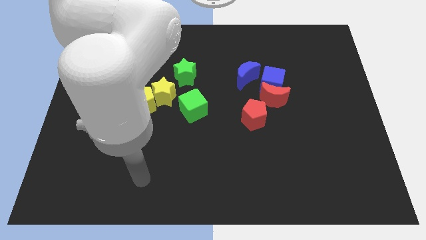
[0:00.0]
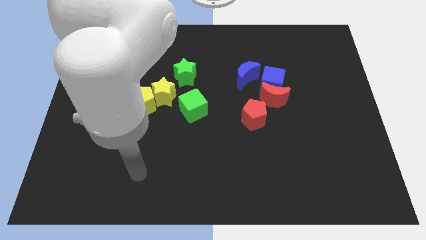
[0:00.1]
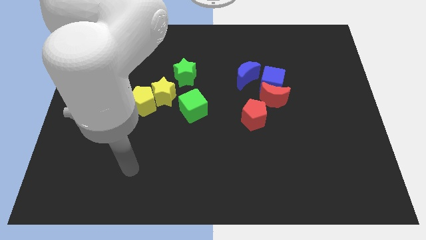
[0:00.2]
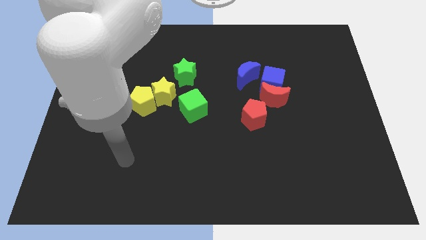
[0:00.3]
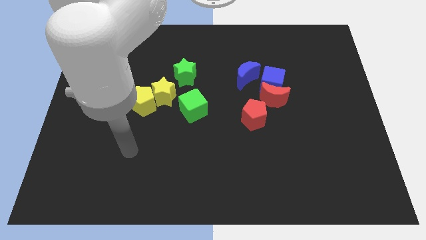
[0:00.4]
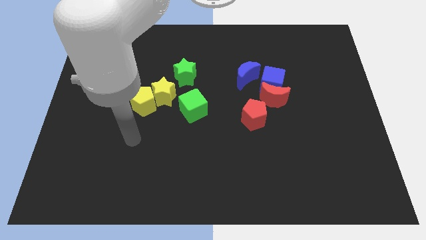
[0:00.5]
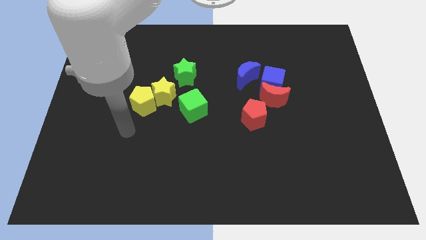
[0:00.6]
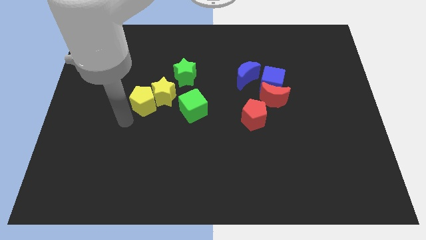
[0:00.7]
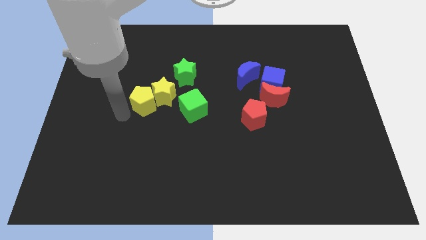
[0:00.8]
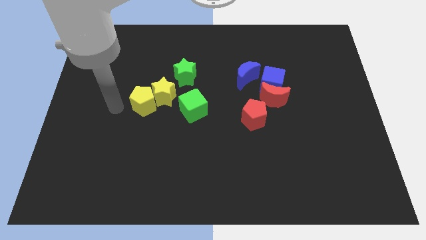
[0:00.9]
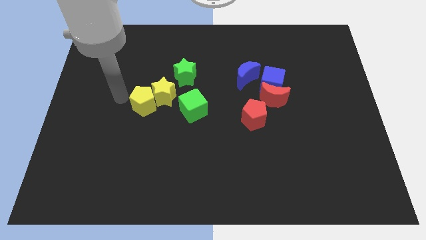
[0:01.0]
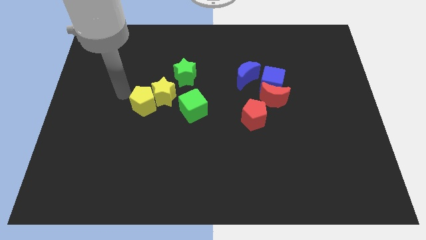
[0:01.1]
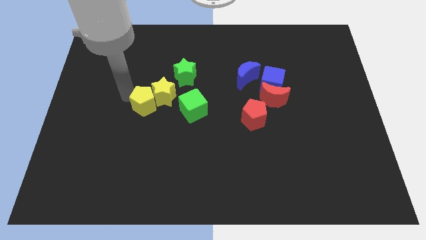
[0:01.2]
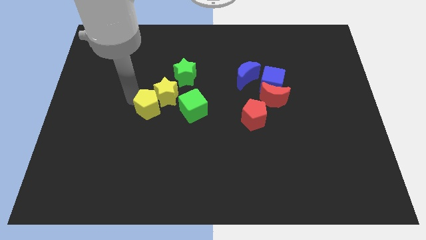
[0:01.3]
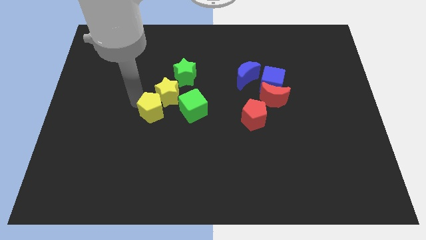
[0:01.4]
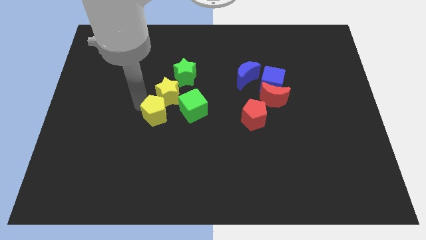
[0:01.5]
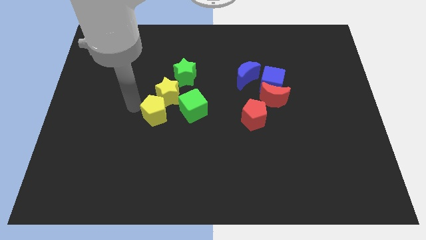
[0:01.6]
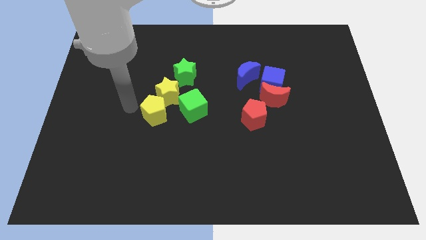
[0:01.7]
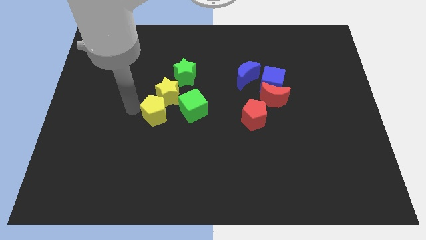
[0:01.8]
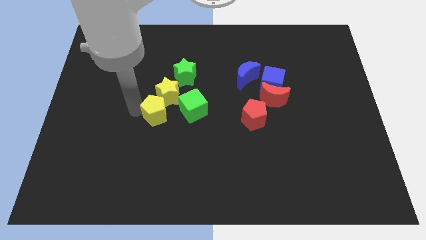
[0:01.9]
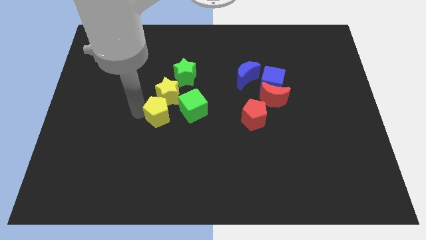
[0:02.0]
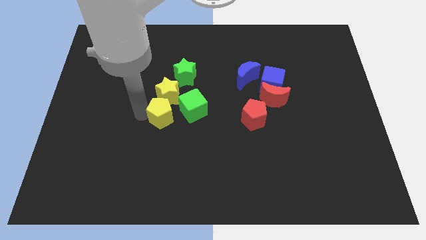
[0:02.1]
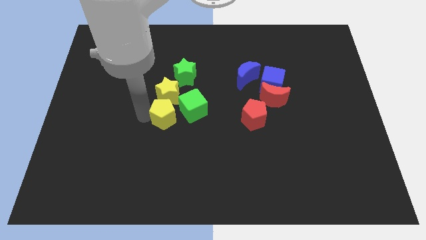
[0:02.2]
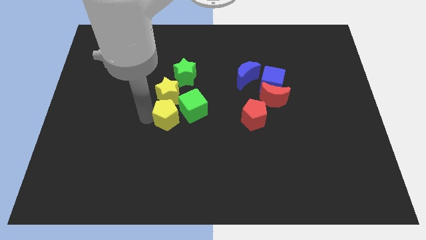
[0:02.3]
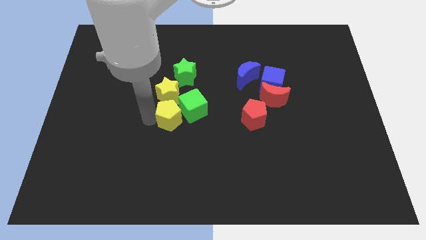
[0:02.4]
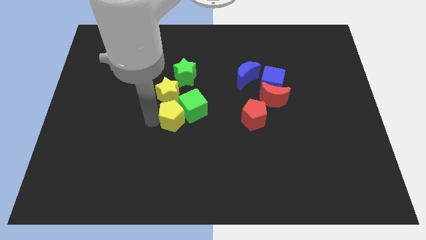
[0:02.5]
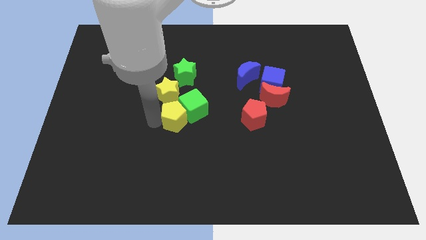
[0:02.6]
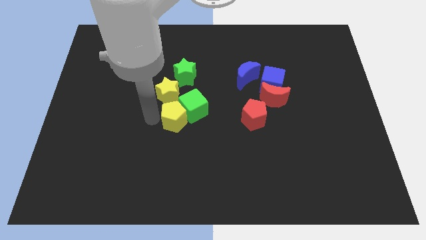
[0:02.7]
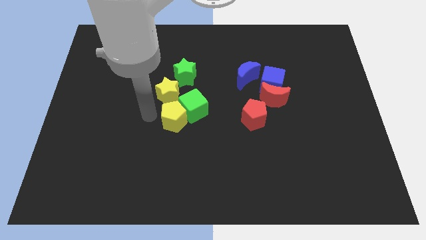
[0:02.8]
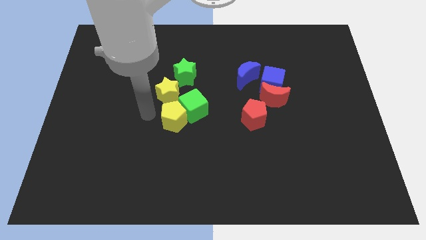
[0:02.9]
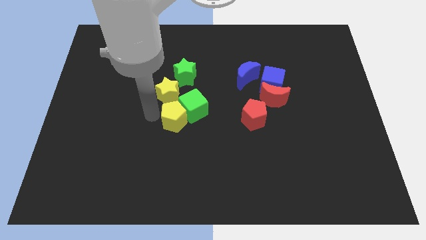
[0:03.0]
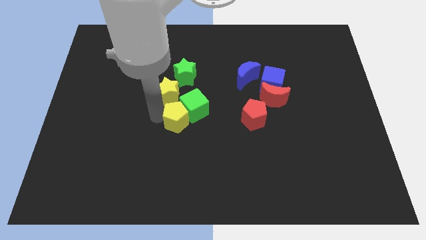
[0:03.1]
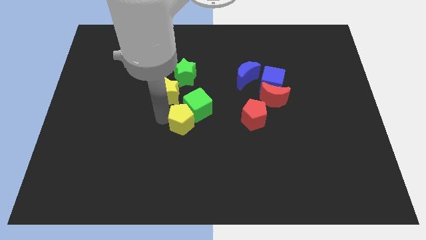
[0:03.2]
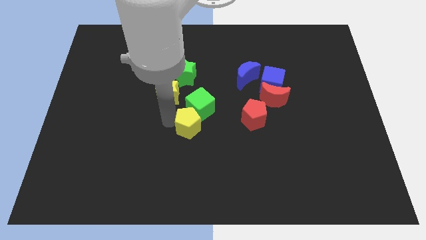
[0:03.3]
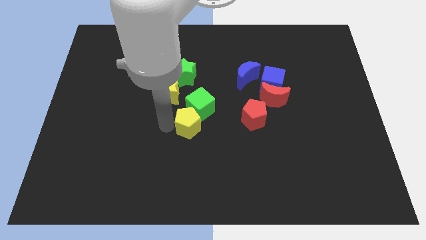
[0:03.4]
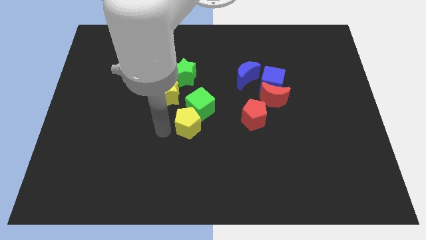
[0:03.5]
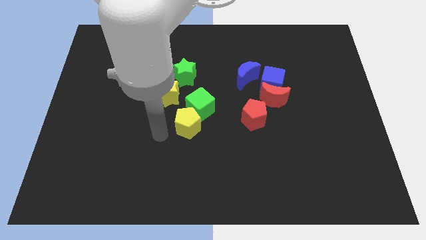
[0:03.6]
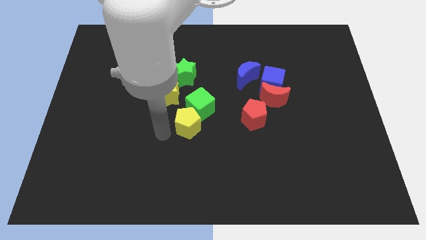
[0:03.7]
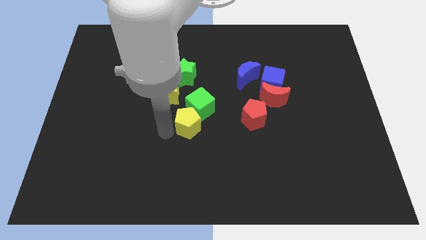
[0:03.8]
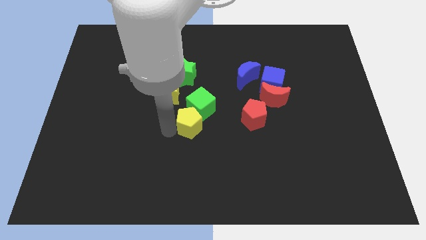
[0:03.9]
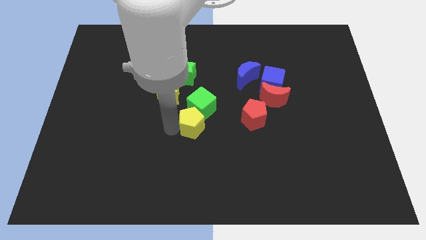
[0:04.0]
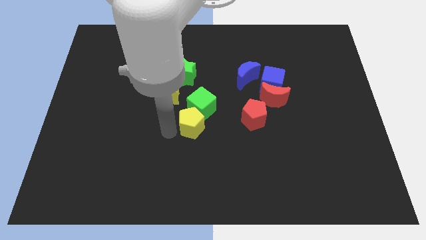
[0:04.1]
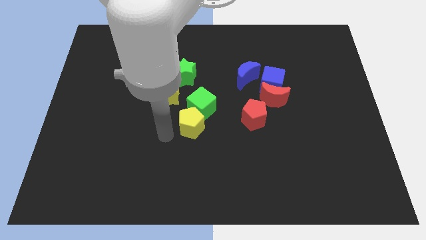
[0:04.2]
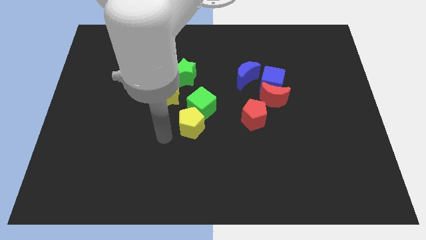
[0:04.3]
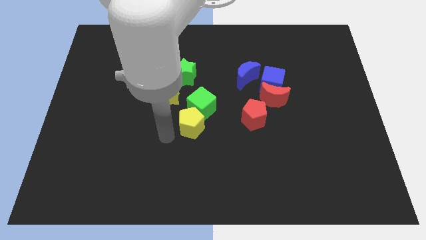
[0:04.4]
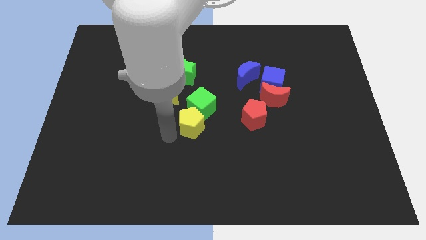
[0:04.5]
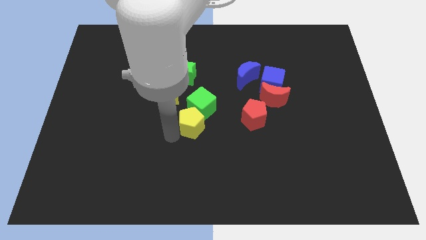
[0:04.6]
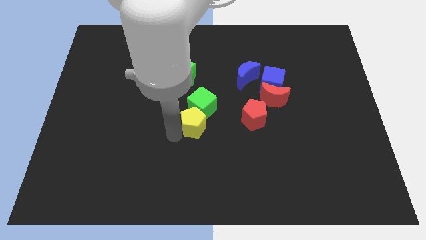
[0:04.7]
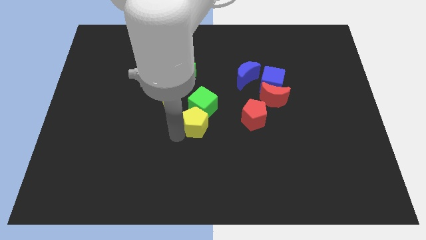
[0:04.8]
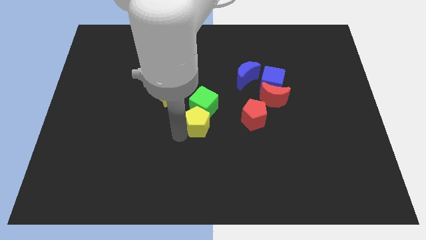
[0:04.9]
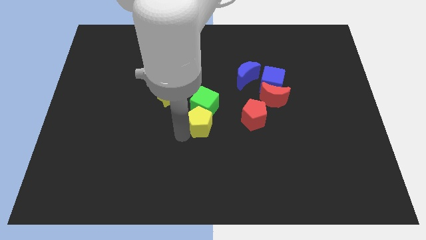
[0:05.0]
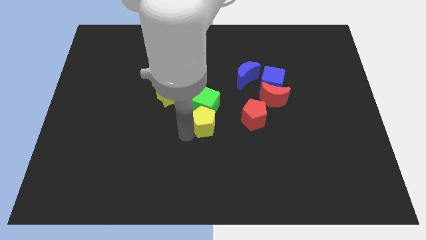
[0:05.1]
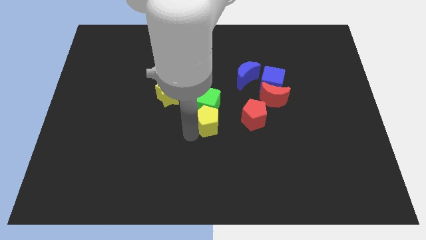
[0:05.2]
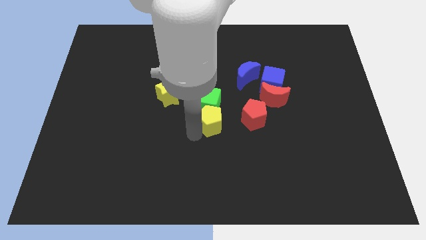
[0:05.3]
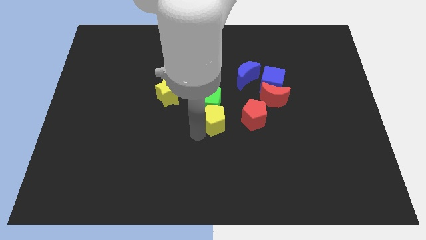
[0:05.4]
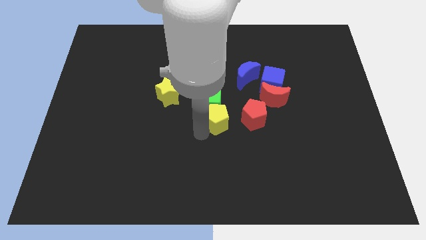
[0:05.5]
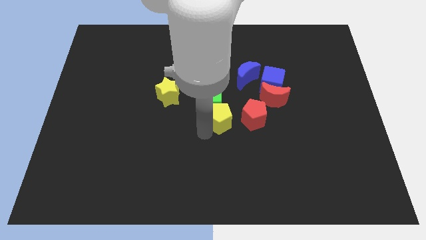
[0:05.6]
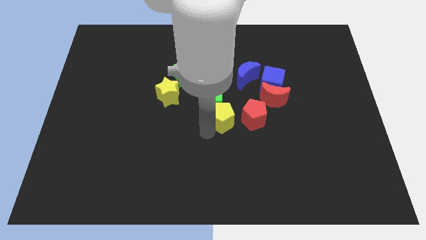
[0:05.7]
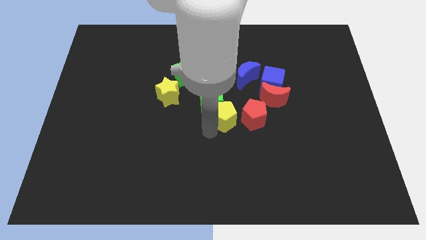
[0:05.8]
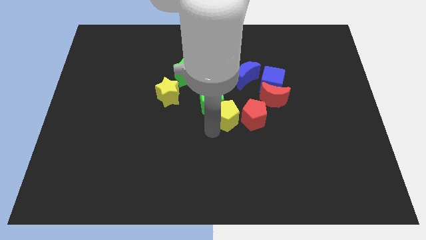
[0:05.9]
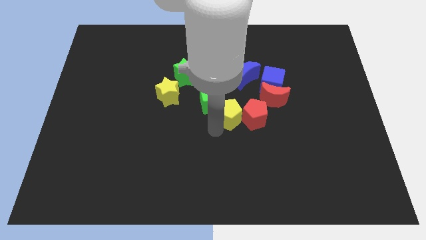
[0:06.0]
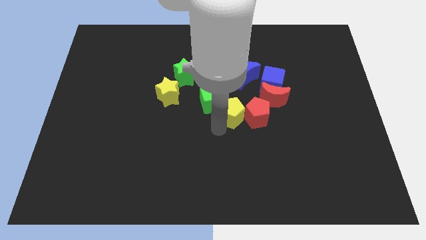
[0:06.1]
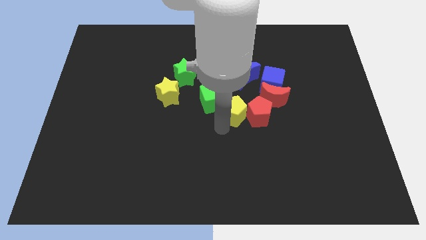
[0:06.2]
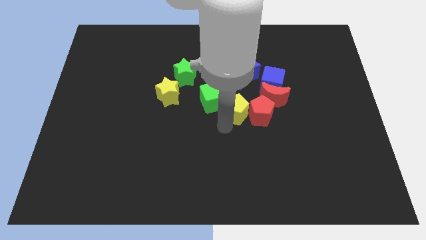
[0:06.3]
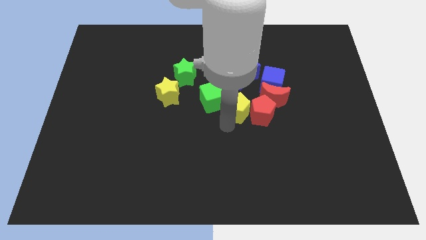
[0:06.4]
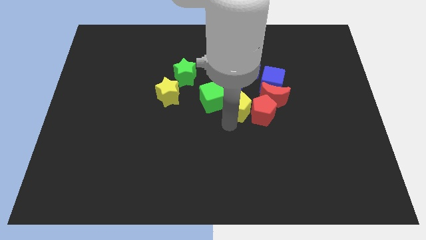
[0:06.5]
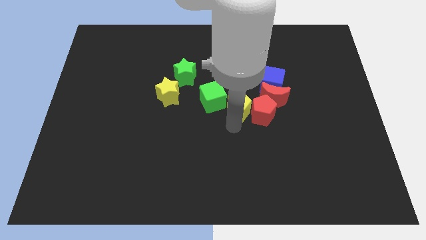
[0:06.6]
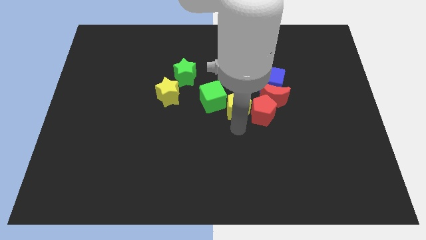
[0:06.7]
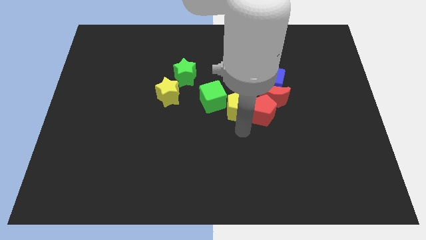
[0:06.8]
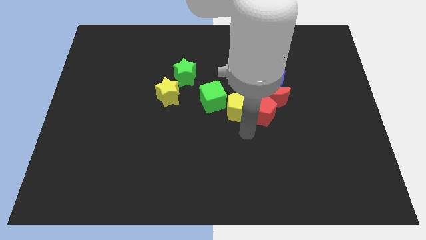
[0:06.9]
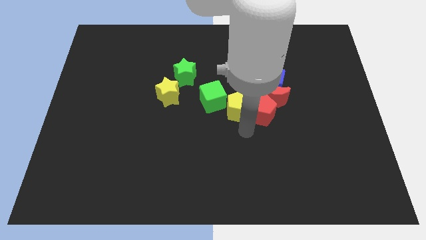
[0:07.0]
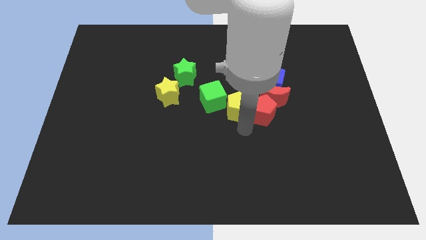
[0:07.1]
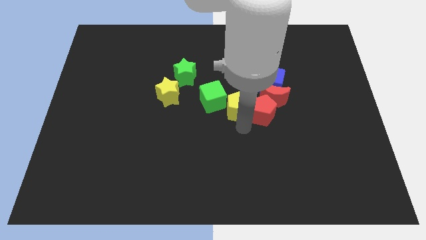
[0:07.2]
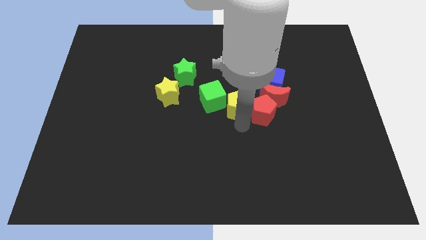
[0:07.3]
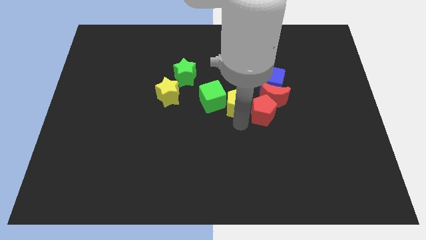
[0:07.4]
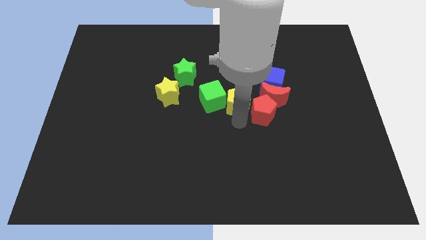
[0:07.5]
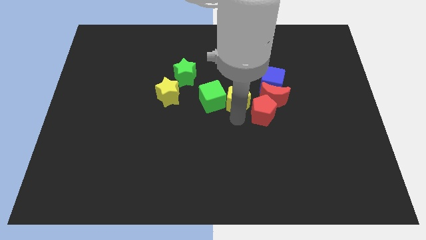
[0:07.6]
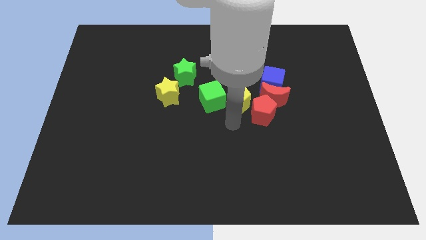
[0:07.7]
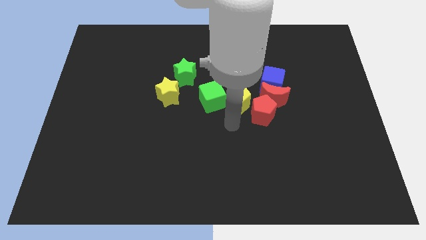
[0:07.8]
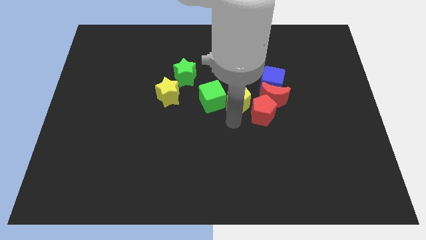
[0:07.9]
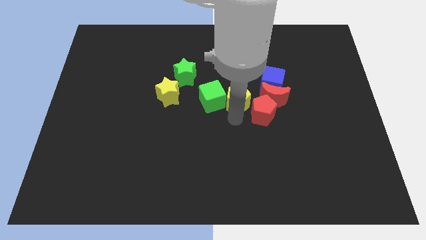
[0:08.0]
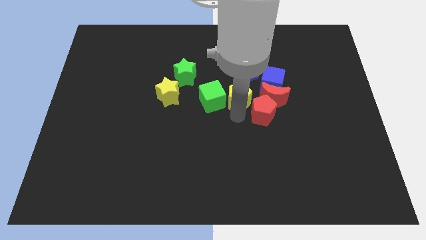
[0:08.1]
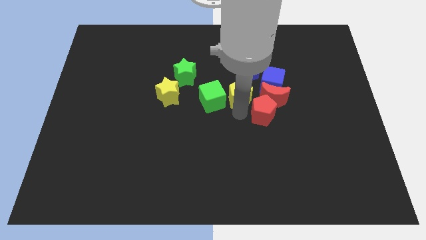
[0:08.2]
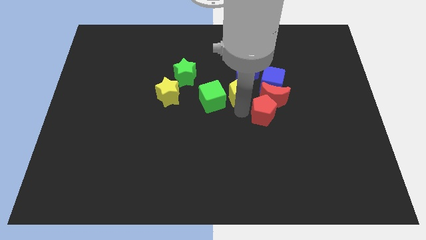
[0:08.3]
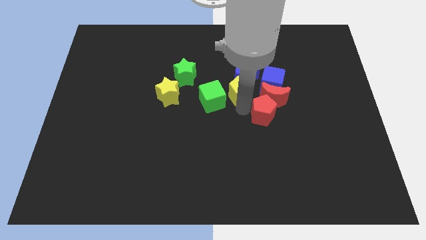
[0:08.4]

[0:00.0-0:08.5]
push the yellow pentagon towards the blue moon
